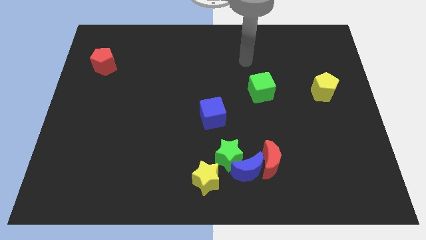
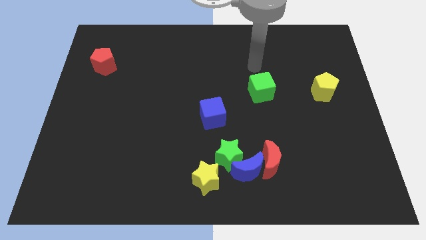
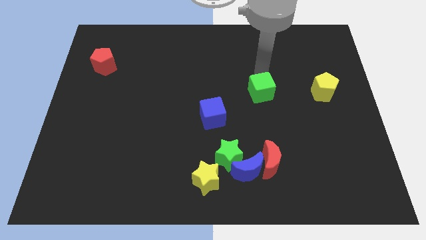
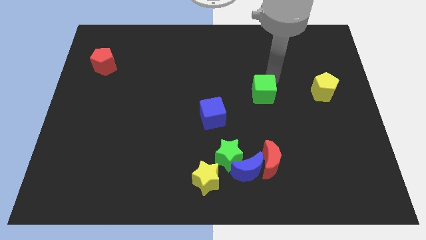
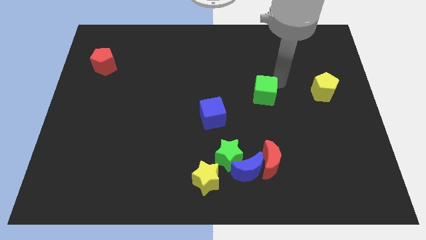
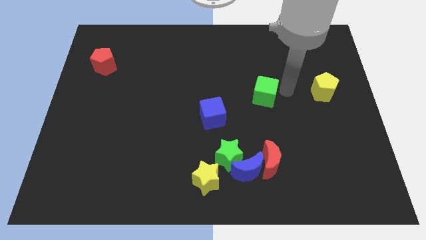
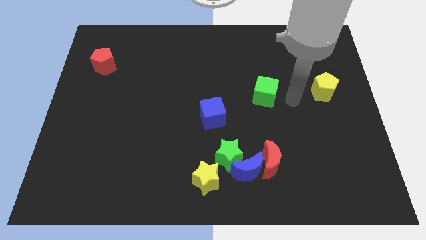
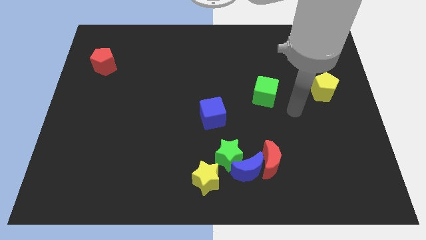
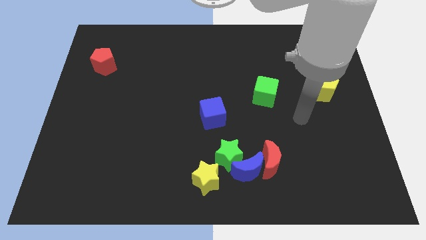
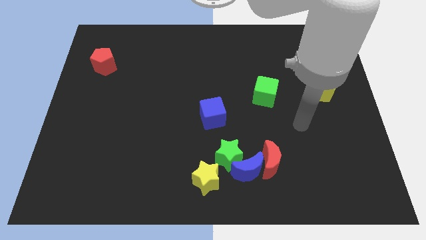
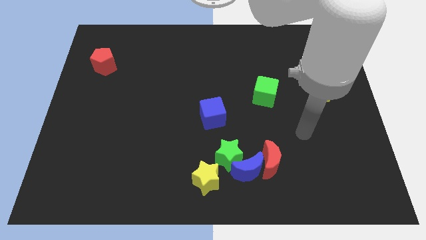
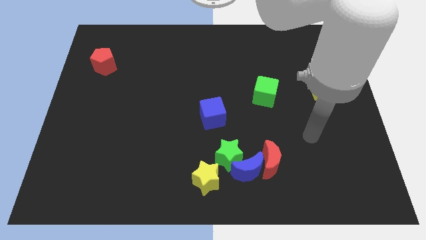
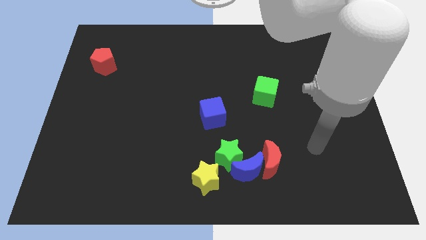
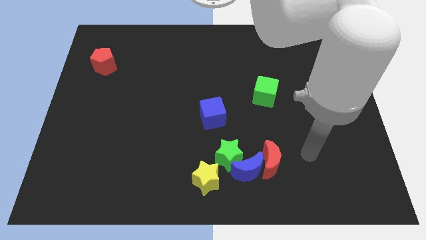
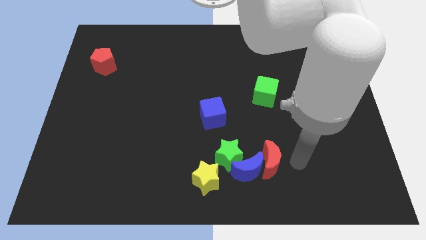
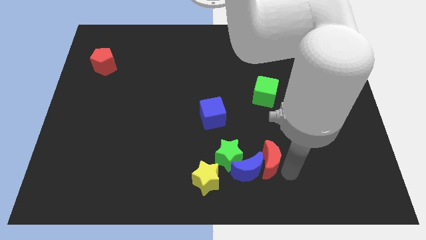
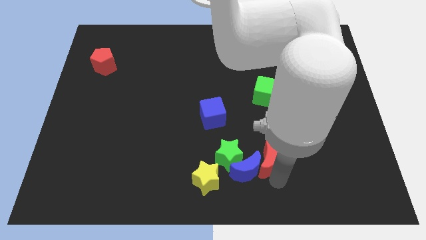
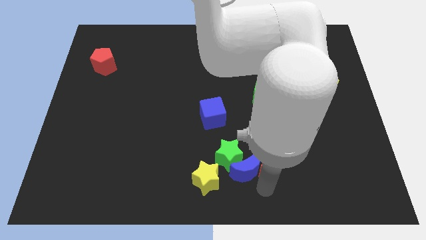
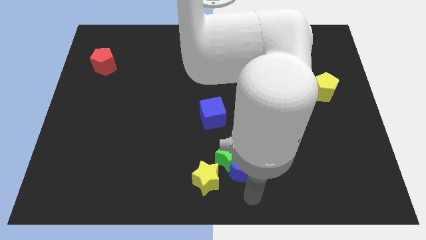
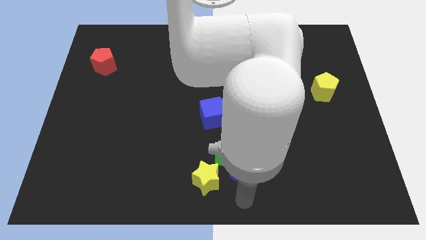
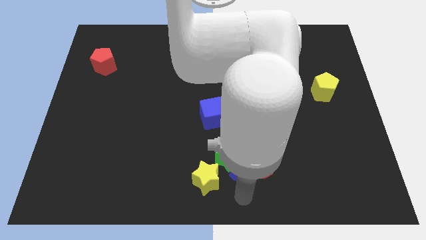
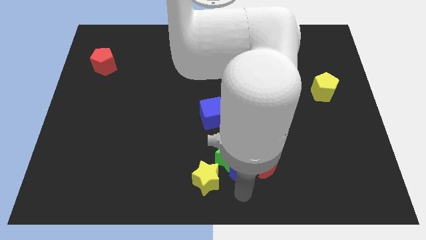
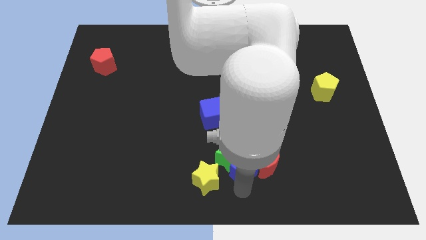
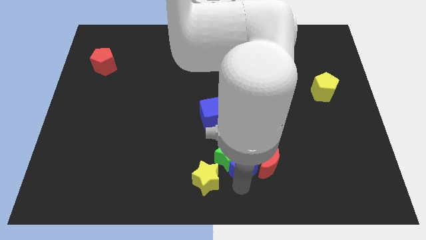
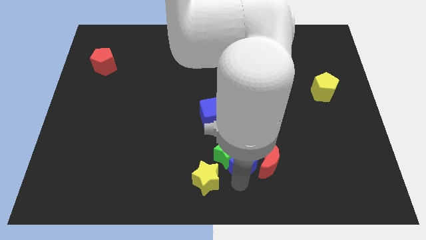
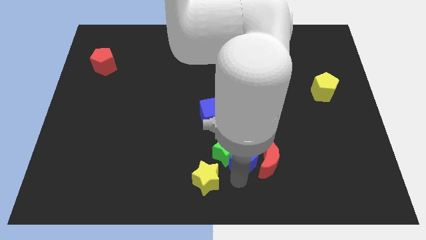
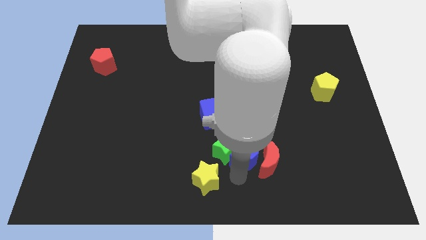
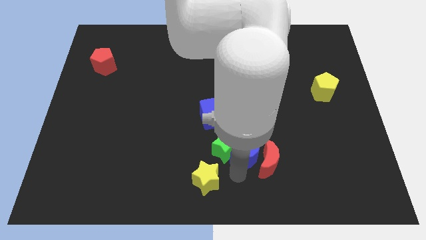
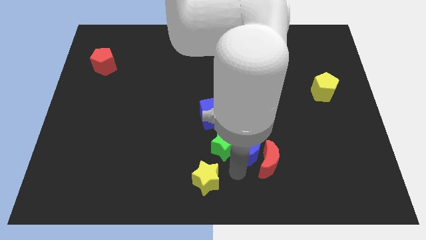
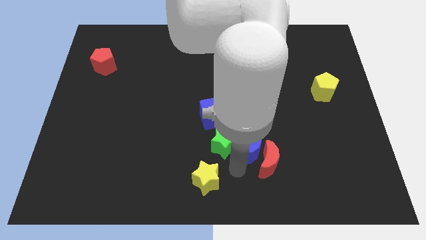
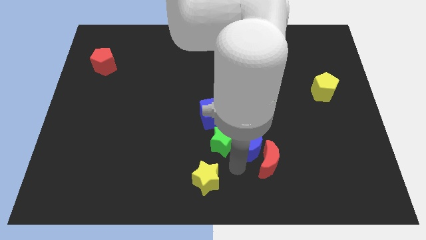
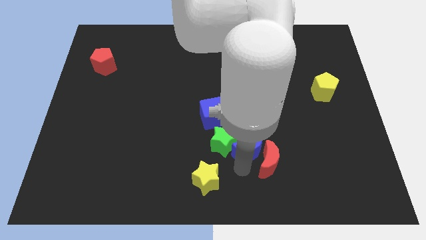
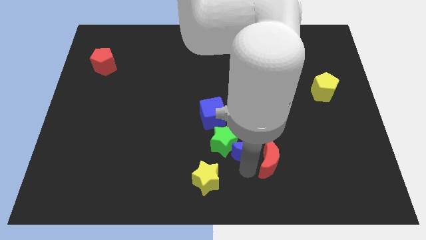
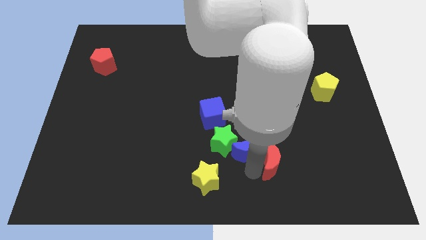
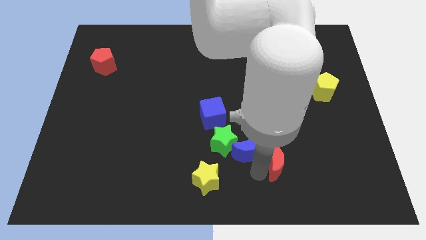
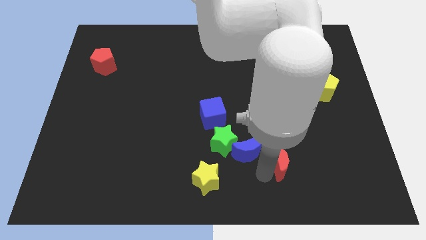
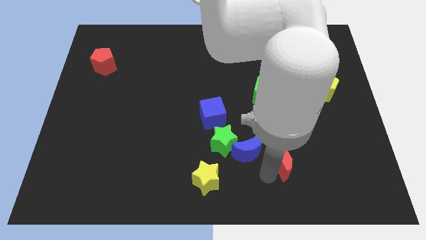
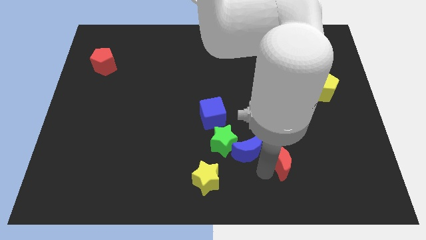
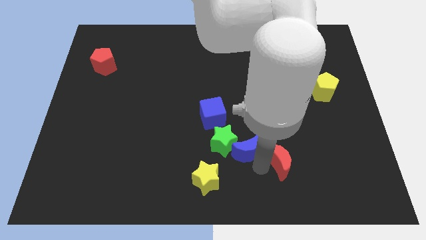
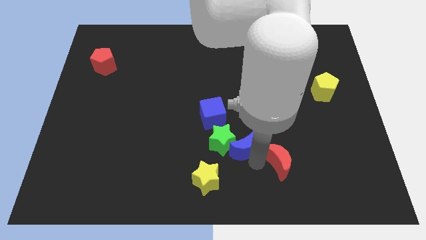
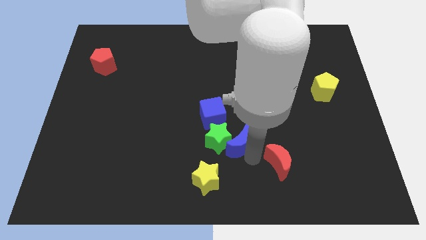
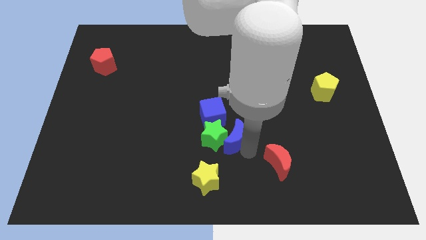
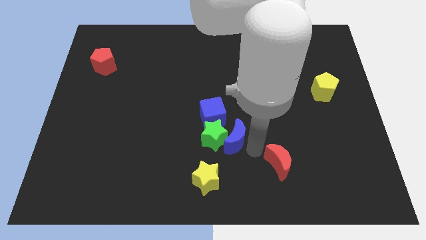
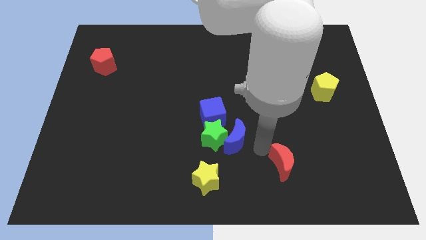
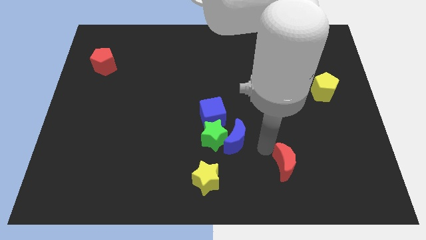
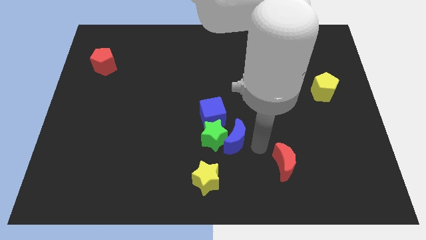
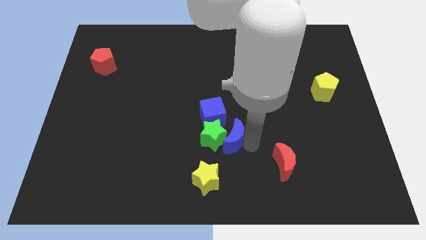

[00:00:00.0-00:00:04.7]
move the blue moon a little diagonally upwards and to the left

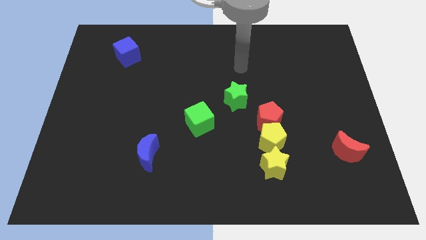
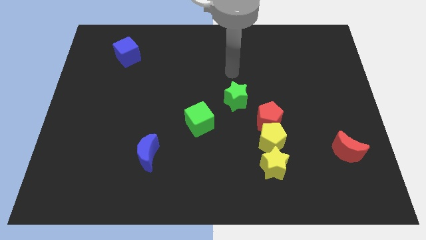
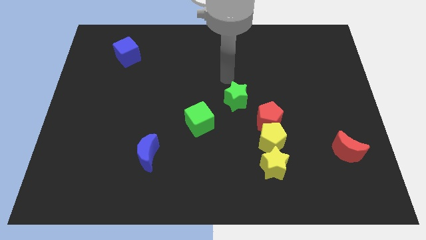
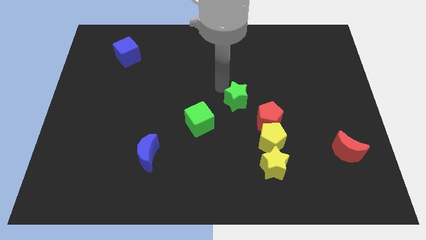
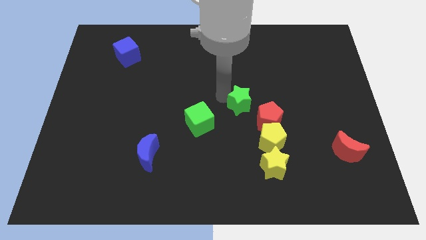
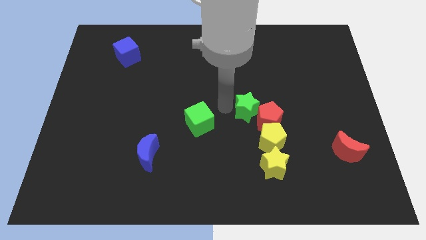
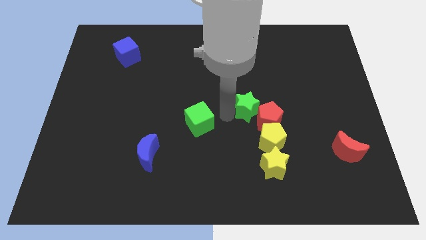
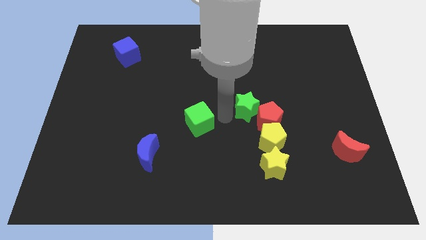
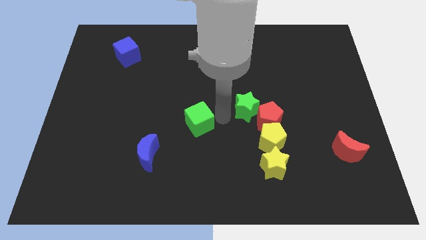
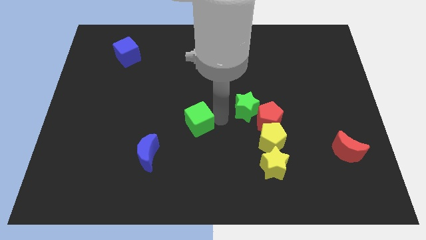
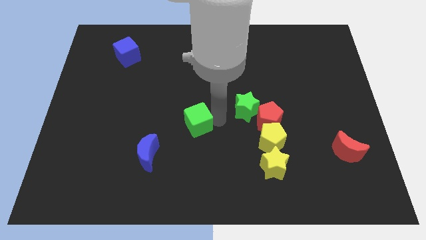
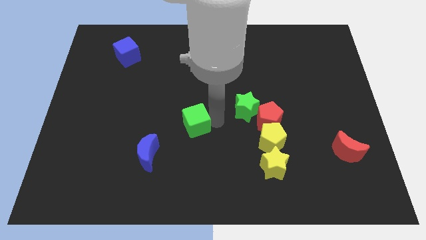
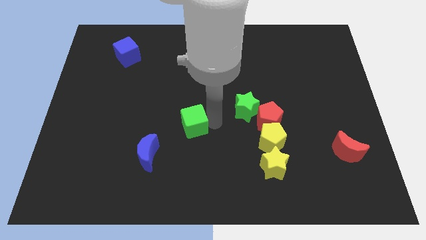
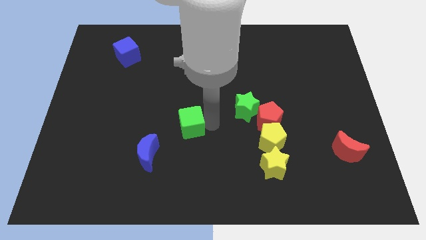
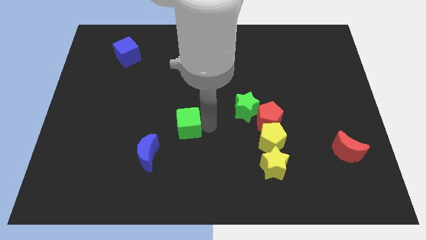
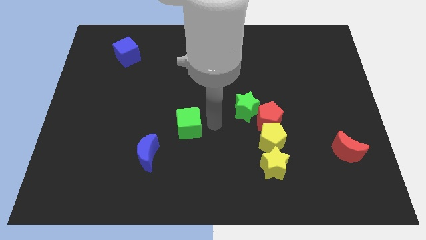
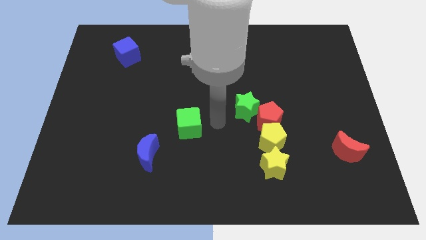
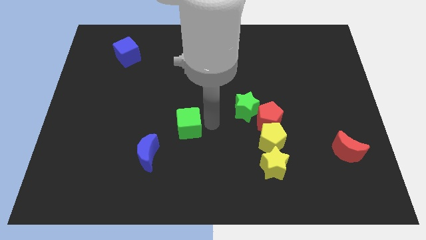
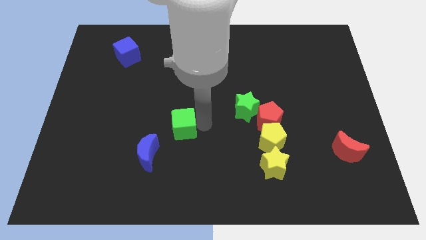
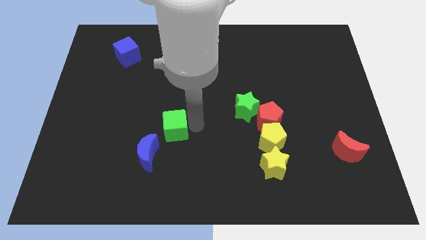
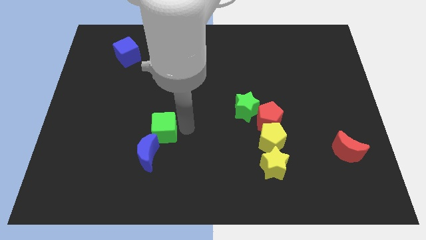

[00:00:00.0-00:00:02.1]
slightly move the green cube left

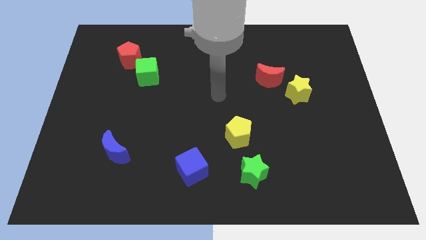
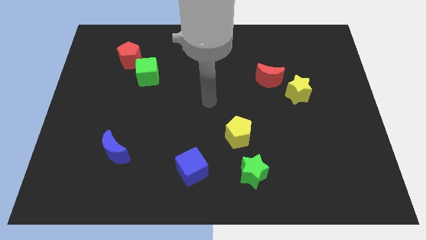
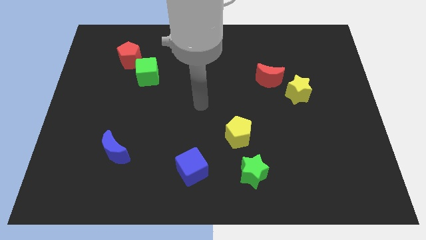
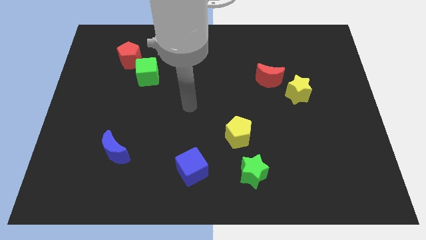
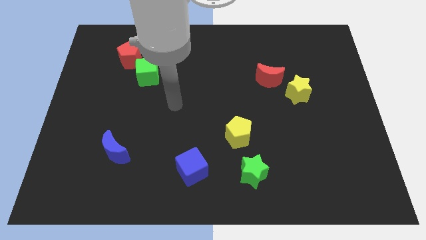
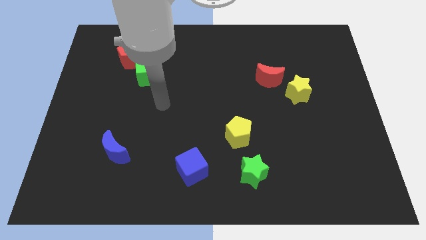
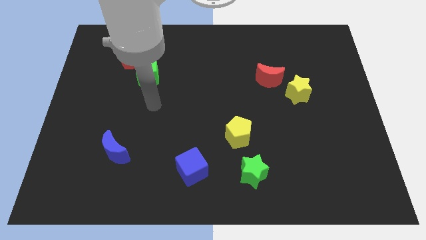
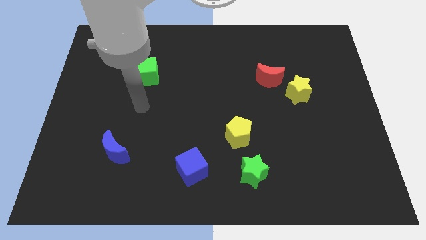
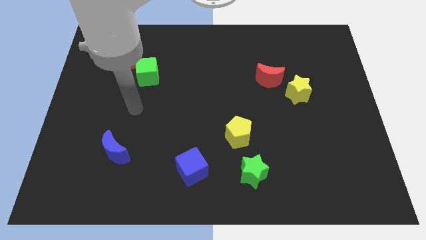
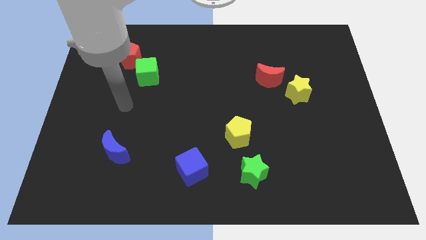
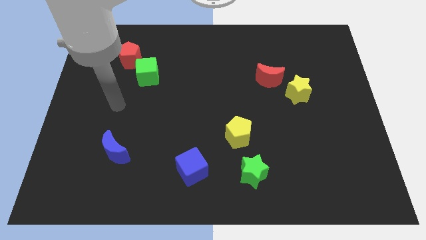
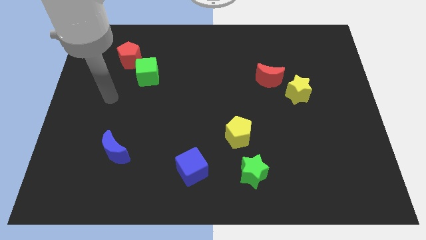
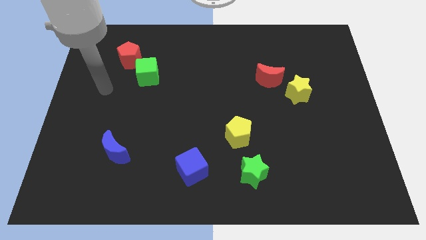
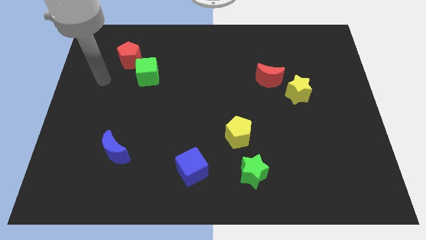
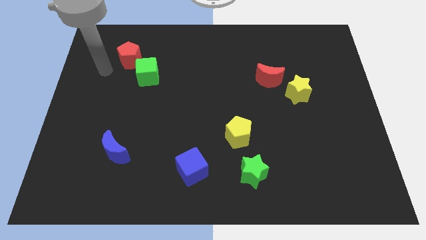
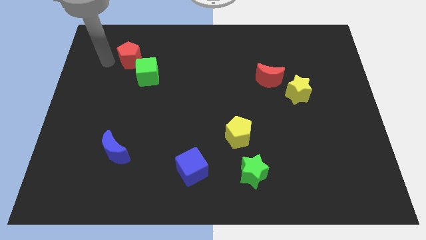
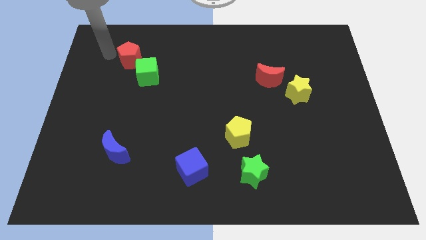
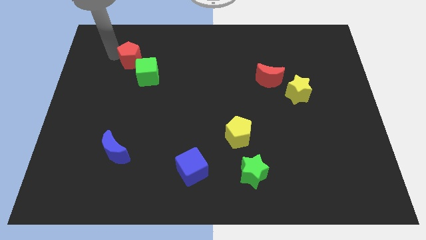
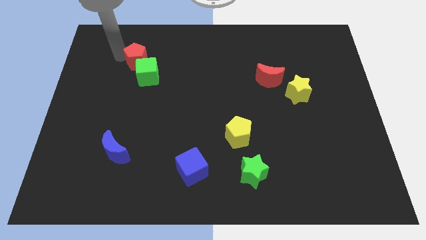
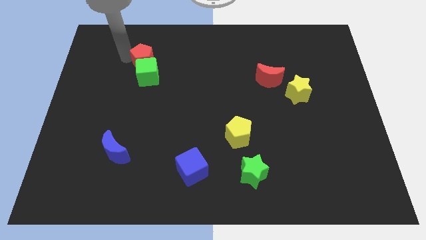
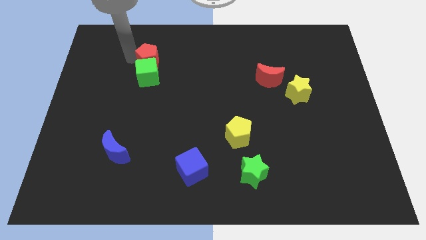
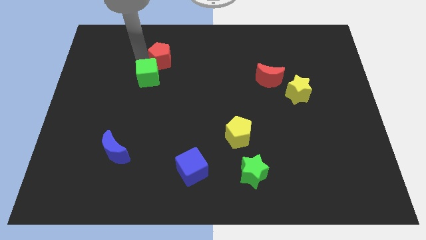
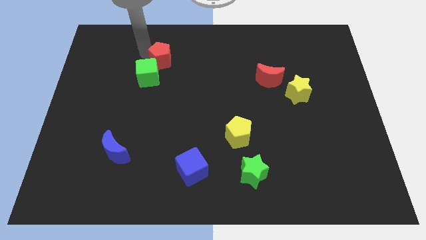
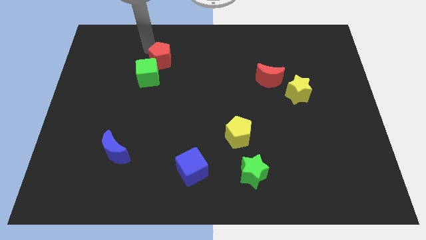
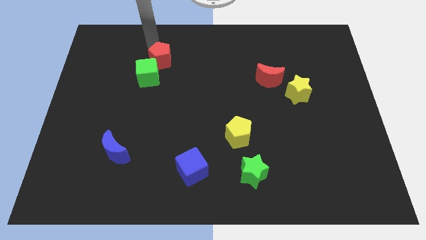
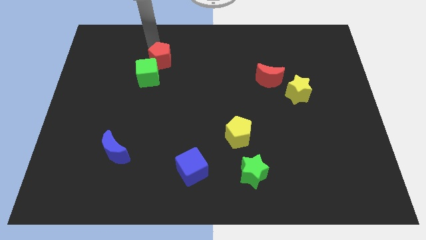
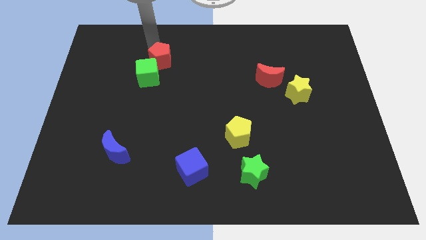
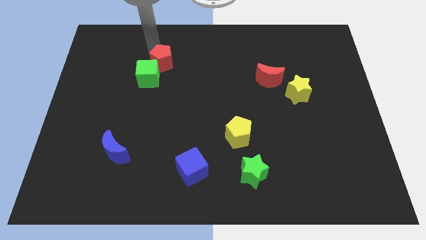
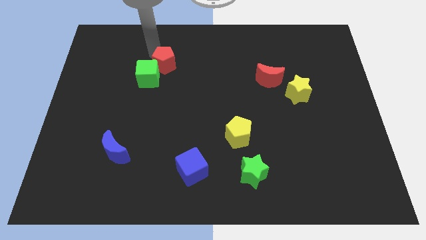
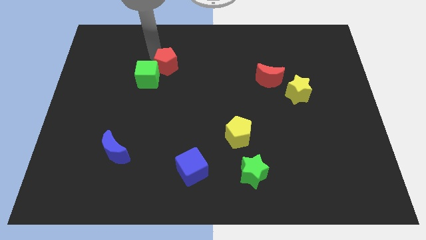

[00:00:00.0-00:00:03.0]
slide the red pentagon a little downwards and then to the right
